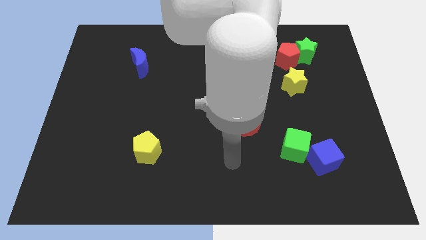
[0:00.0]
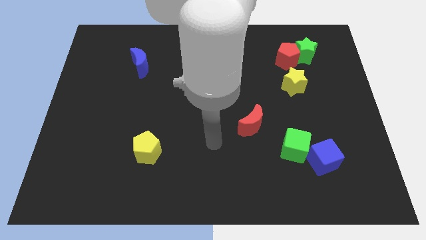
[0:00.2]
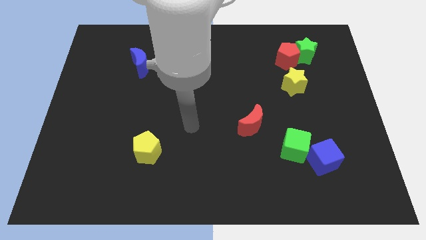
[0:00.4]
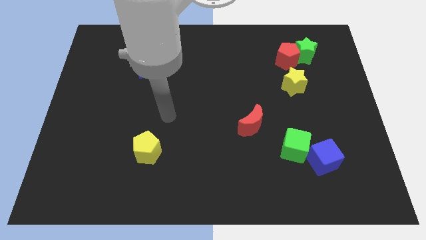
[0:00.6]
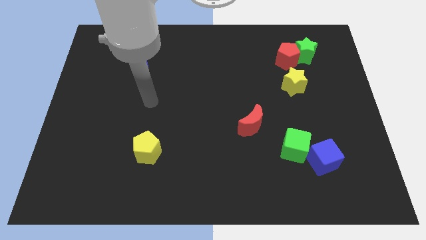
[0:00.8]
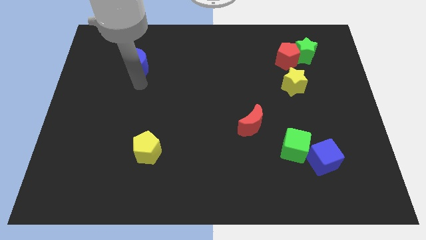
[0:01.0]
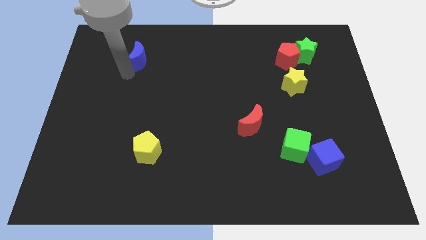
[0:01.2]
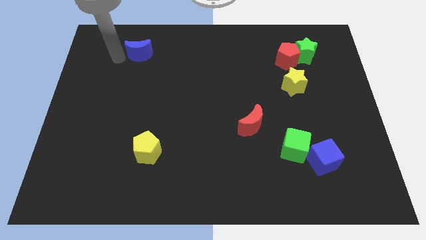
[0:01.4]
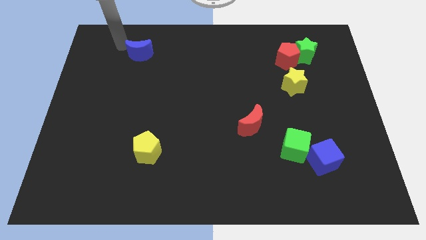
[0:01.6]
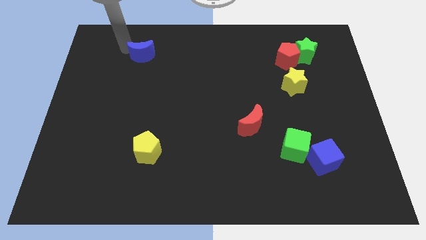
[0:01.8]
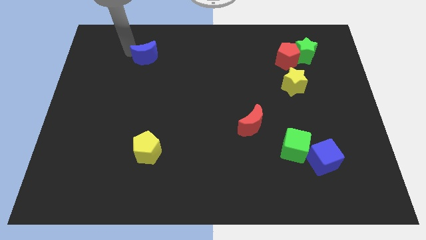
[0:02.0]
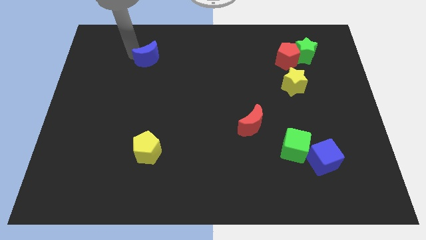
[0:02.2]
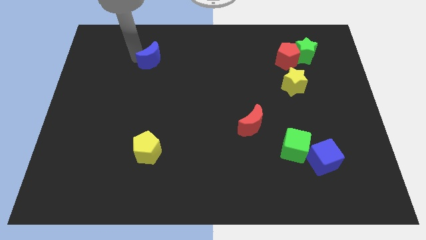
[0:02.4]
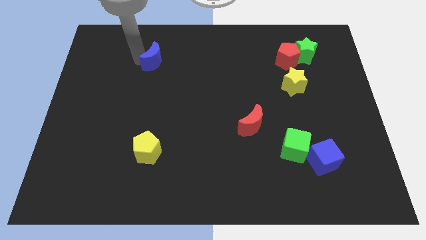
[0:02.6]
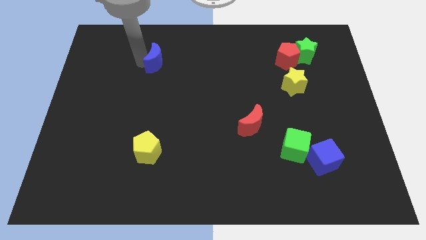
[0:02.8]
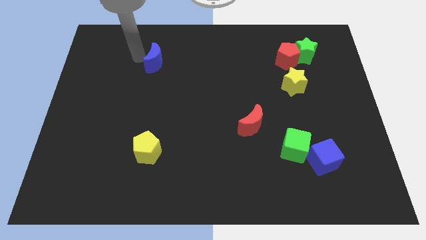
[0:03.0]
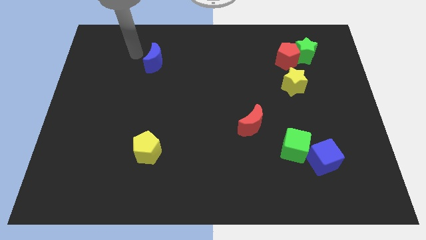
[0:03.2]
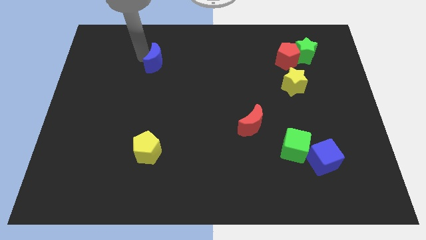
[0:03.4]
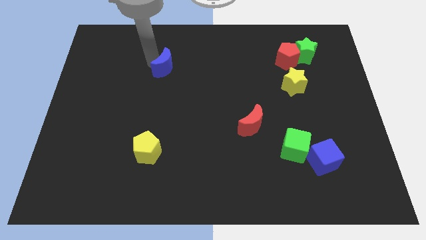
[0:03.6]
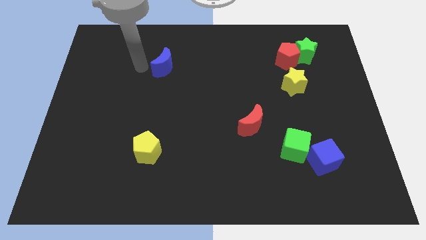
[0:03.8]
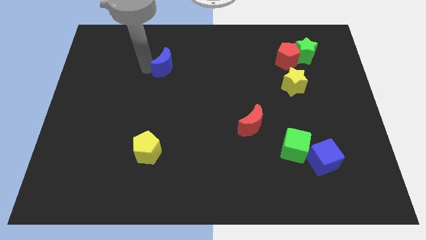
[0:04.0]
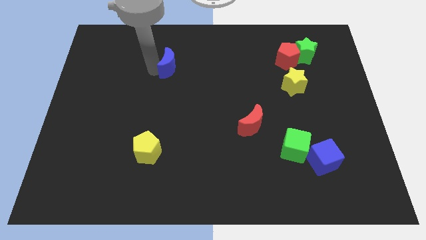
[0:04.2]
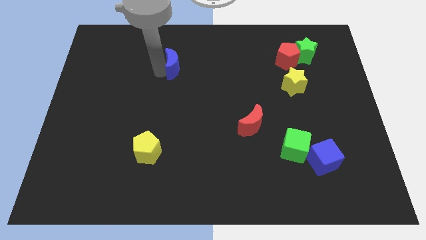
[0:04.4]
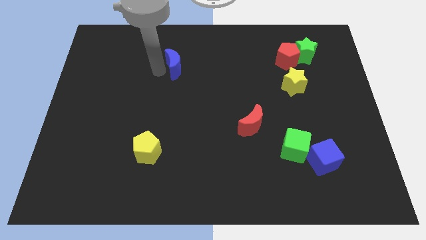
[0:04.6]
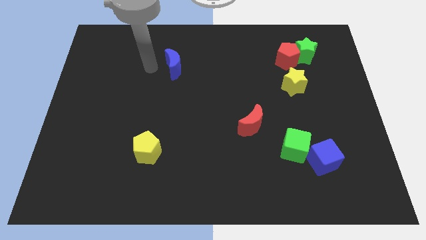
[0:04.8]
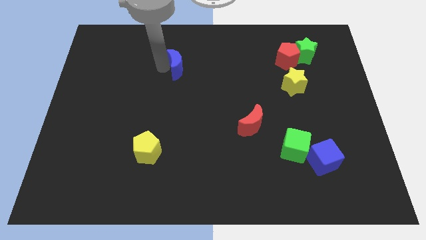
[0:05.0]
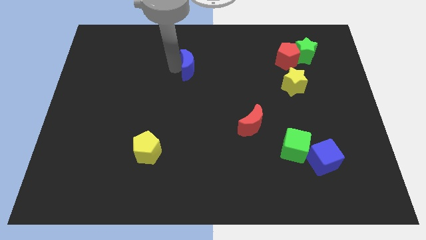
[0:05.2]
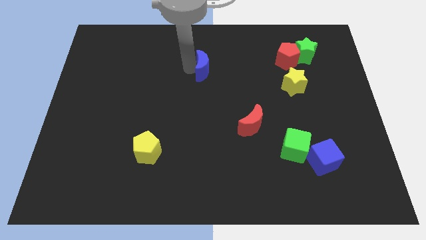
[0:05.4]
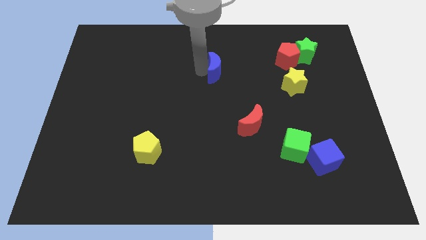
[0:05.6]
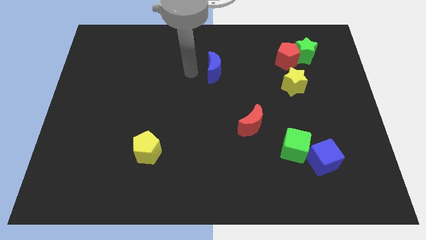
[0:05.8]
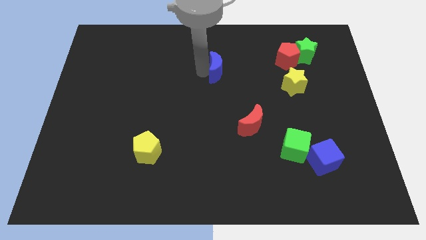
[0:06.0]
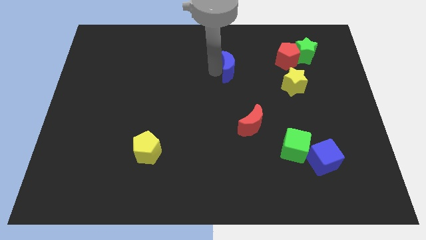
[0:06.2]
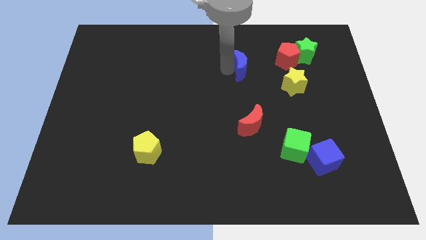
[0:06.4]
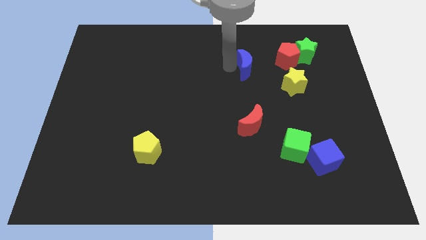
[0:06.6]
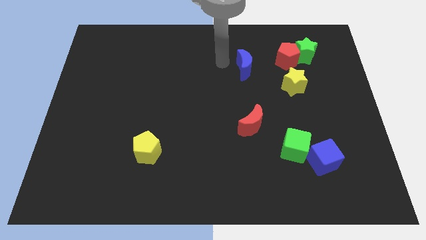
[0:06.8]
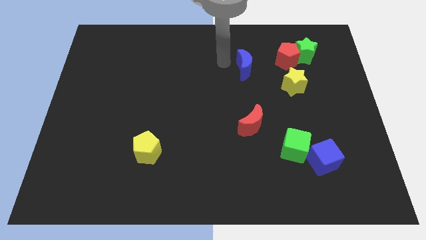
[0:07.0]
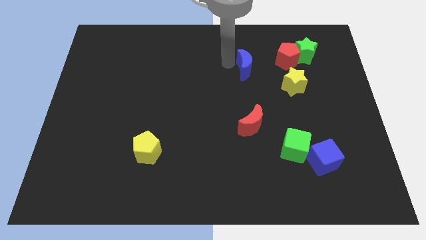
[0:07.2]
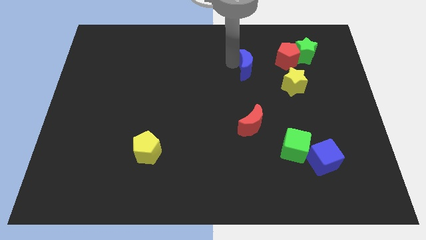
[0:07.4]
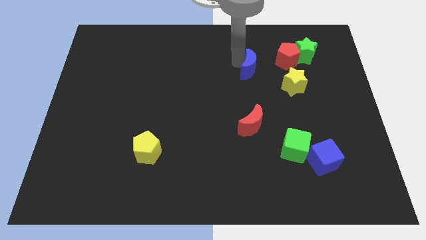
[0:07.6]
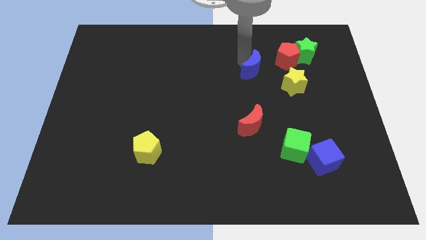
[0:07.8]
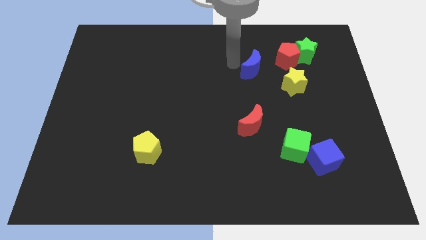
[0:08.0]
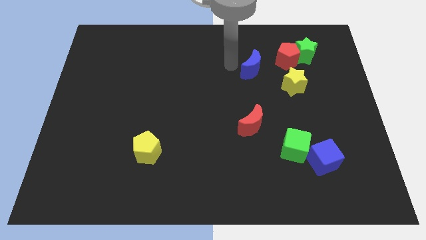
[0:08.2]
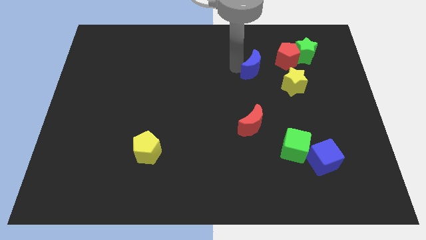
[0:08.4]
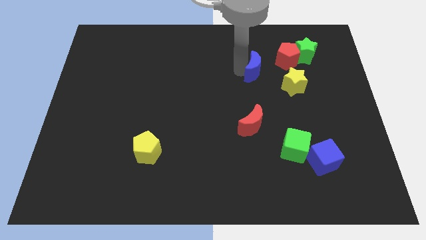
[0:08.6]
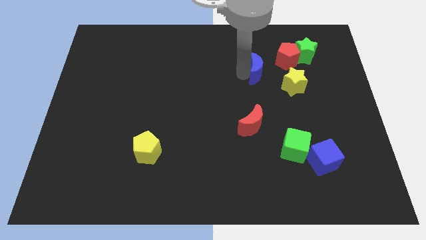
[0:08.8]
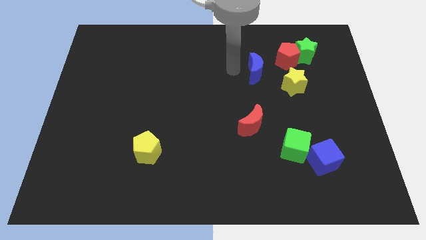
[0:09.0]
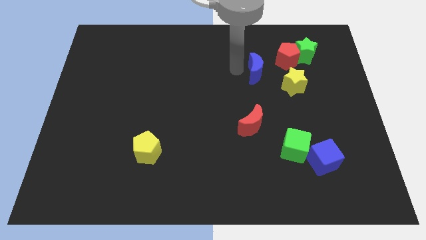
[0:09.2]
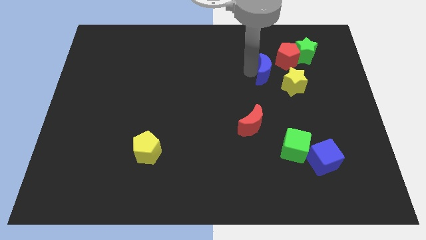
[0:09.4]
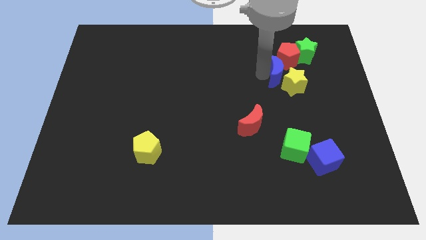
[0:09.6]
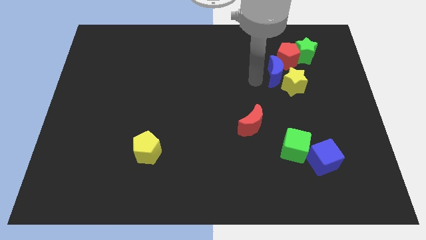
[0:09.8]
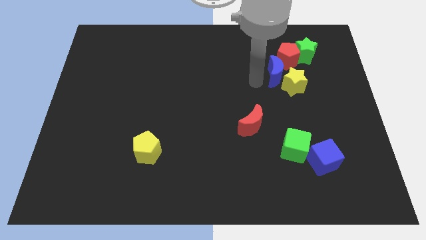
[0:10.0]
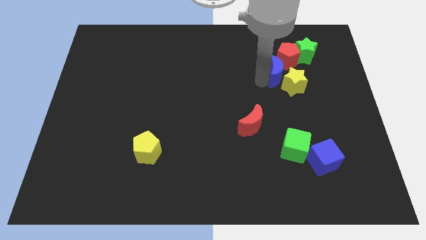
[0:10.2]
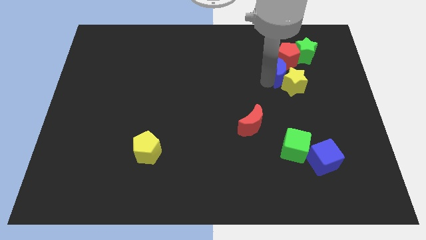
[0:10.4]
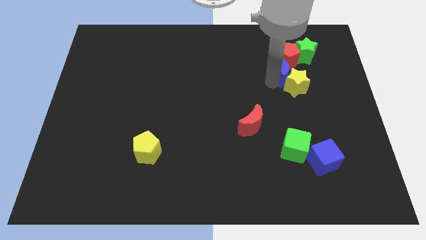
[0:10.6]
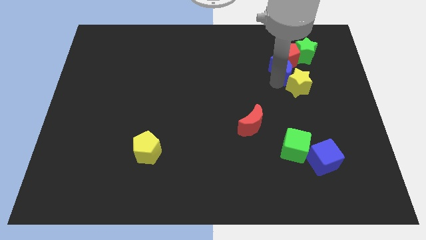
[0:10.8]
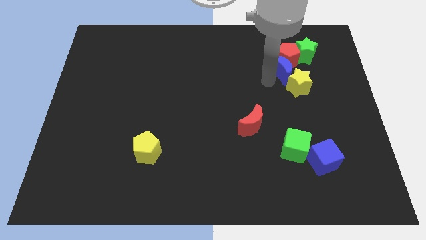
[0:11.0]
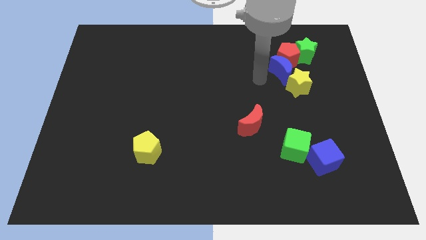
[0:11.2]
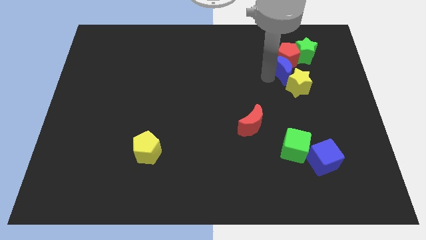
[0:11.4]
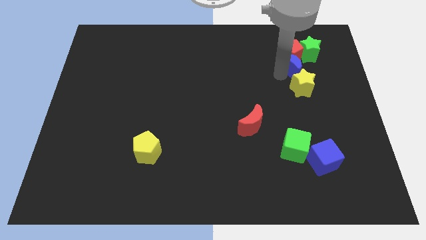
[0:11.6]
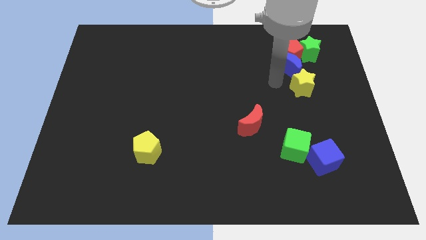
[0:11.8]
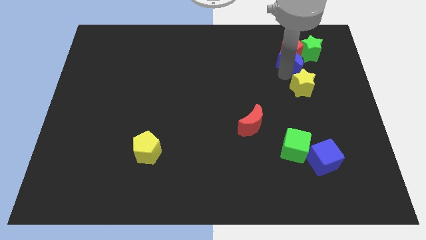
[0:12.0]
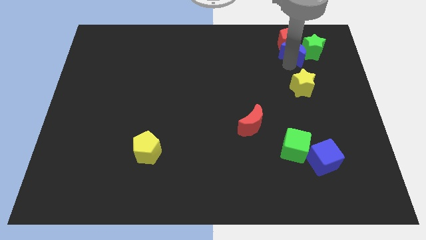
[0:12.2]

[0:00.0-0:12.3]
put the blue moon next to the green star

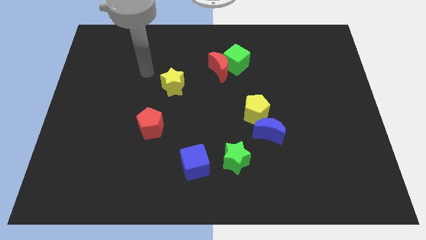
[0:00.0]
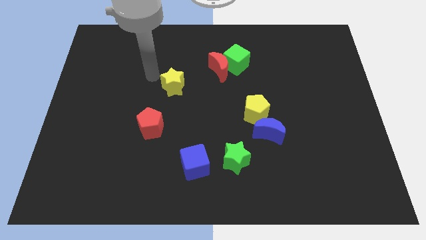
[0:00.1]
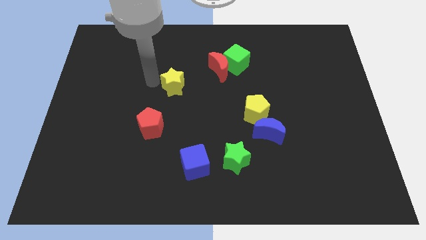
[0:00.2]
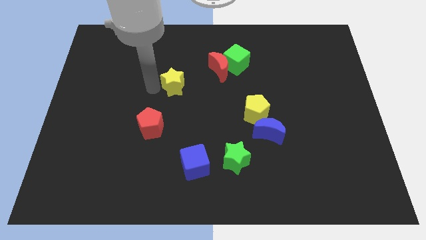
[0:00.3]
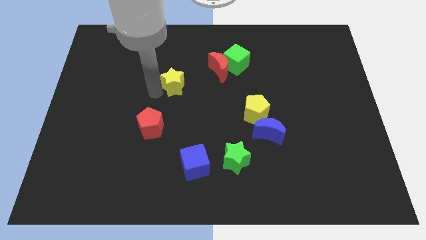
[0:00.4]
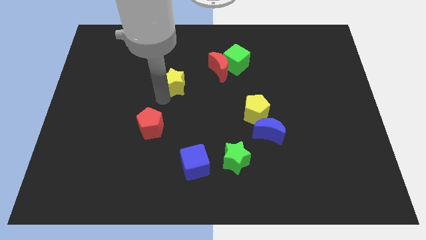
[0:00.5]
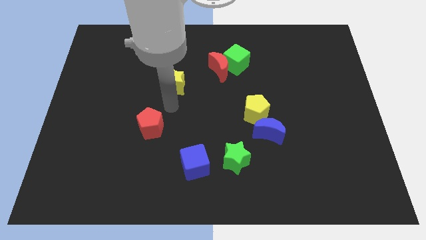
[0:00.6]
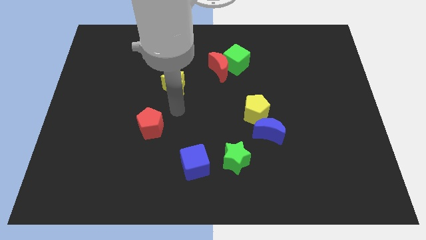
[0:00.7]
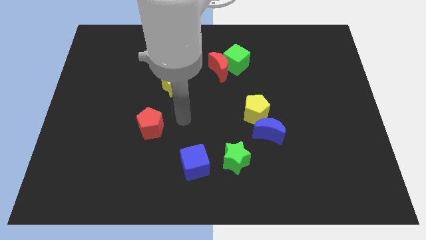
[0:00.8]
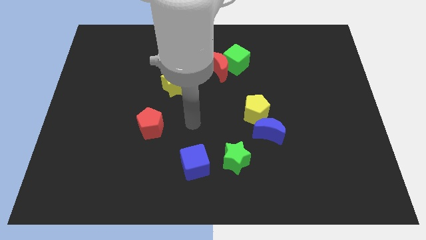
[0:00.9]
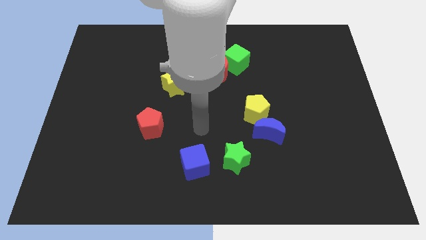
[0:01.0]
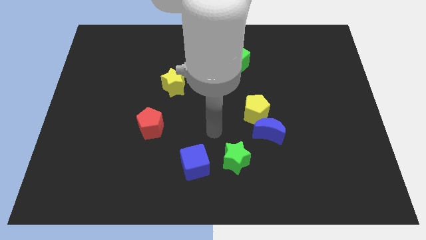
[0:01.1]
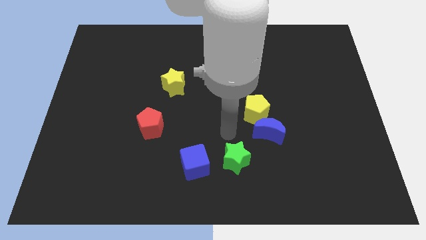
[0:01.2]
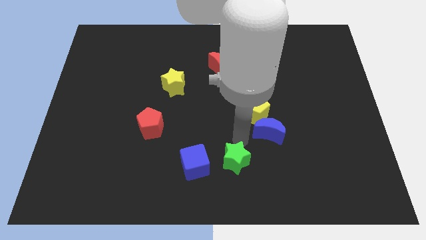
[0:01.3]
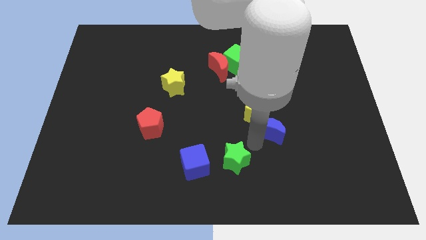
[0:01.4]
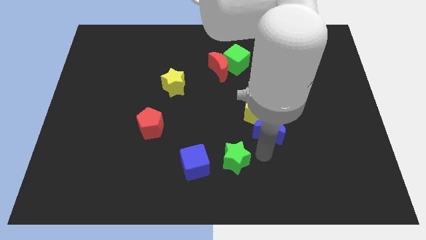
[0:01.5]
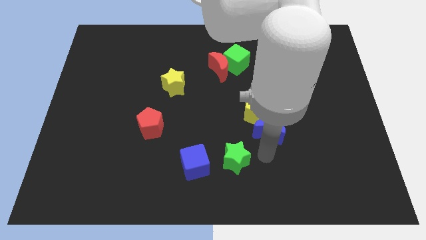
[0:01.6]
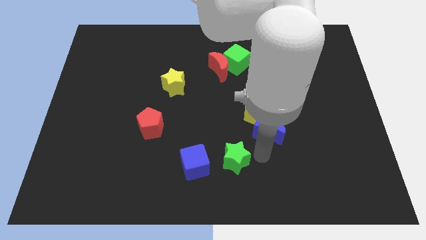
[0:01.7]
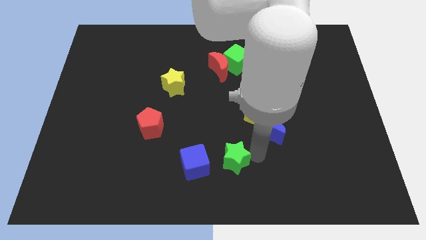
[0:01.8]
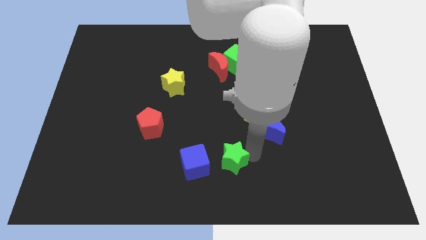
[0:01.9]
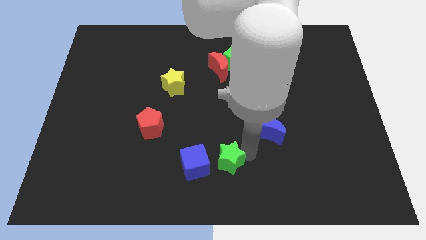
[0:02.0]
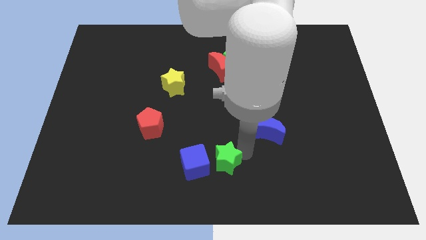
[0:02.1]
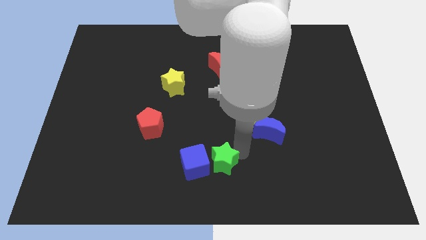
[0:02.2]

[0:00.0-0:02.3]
push the green star next to the blue cube
